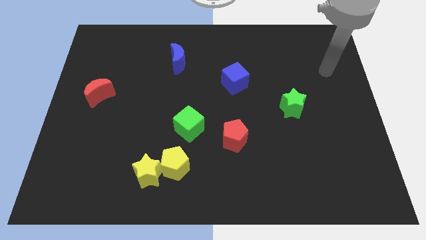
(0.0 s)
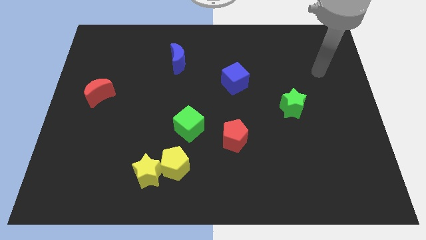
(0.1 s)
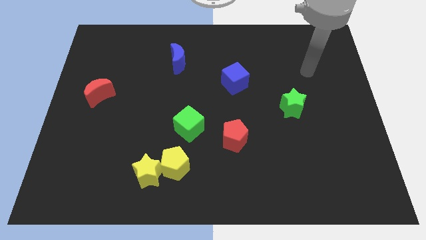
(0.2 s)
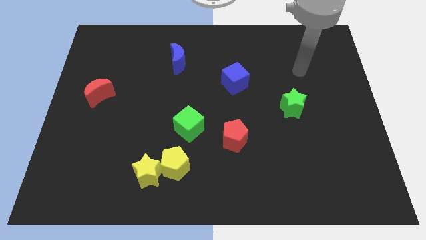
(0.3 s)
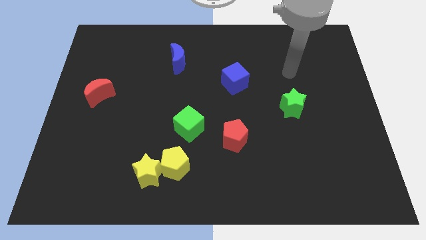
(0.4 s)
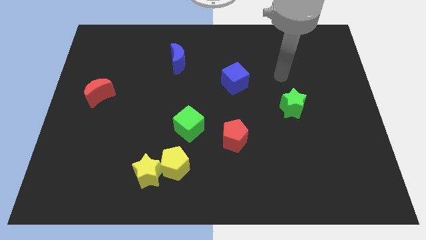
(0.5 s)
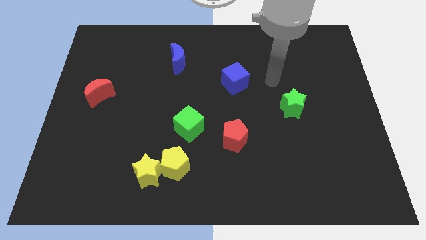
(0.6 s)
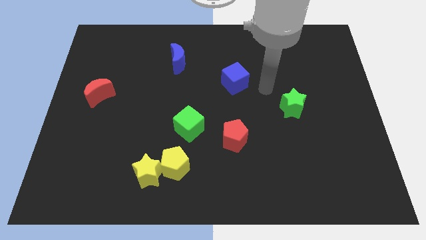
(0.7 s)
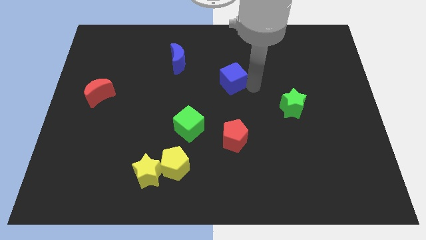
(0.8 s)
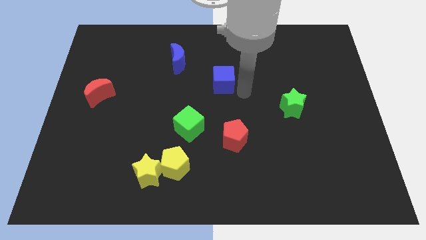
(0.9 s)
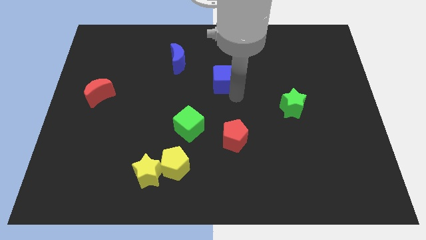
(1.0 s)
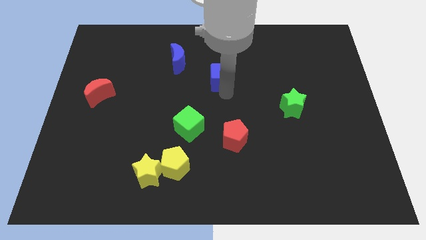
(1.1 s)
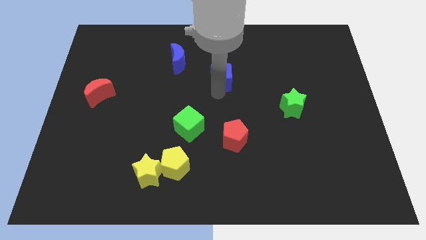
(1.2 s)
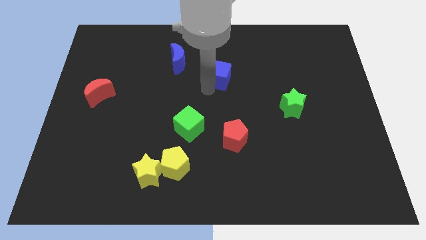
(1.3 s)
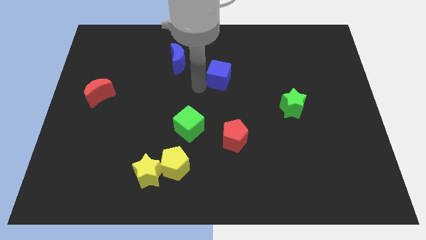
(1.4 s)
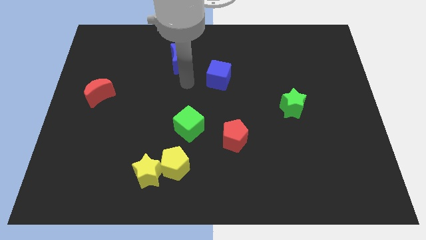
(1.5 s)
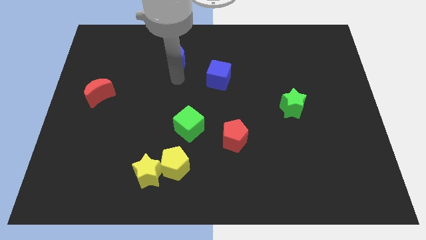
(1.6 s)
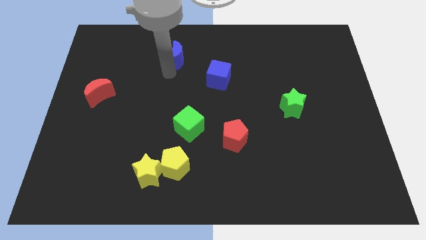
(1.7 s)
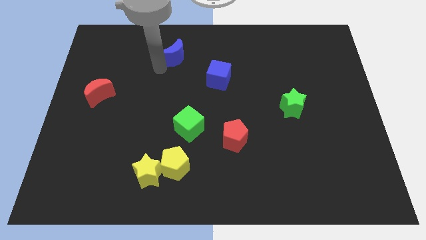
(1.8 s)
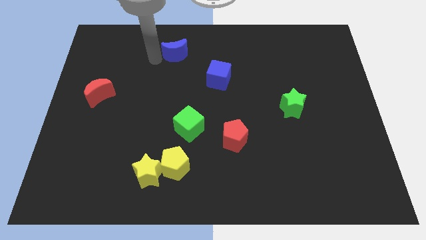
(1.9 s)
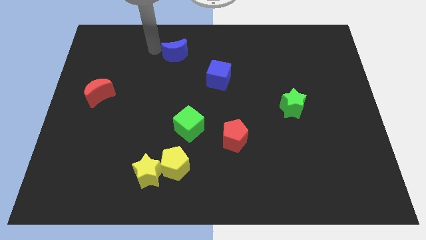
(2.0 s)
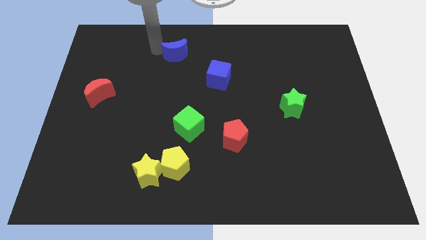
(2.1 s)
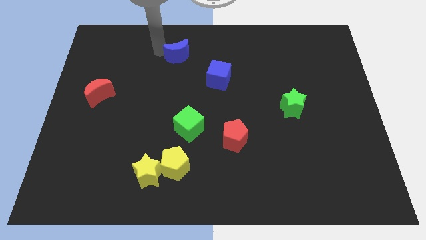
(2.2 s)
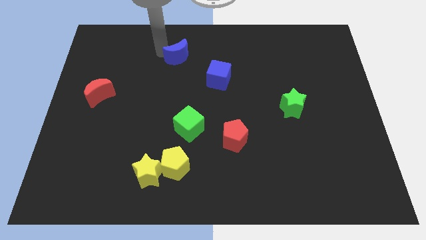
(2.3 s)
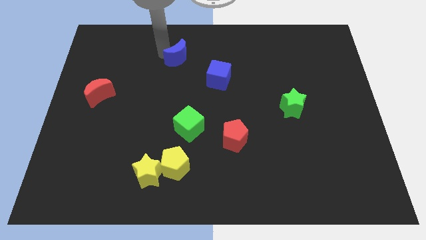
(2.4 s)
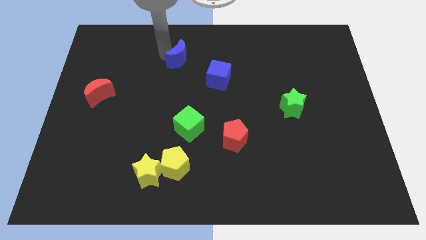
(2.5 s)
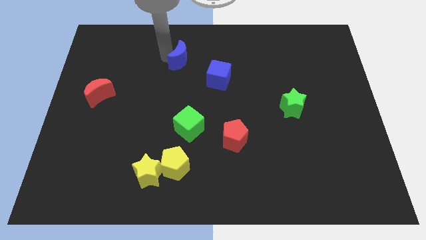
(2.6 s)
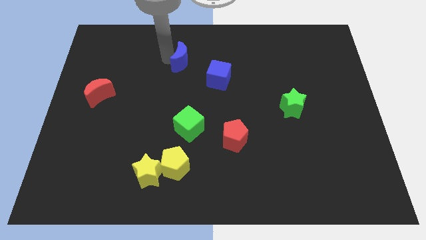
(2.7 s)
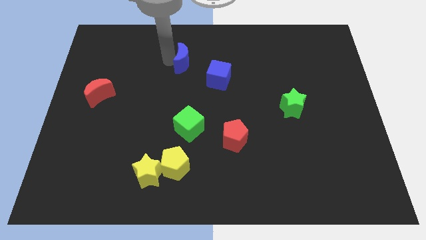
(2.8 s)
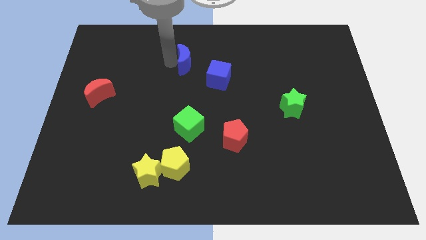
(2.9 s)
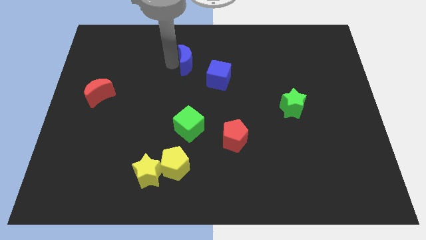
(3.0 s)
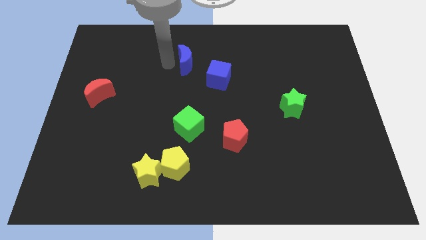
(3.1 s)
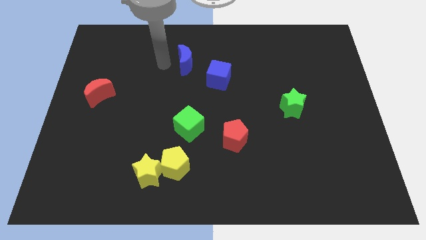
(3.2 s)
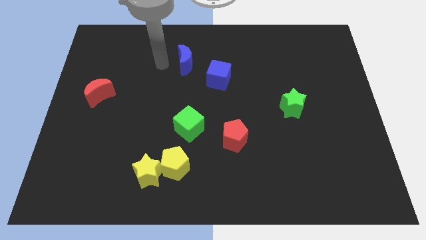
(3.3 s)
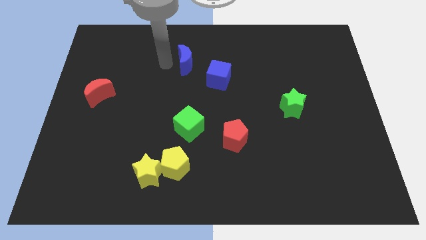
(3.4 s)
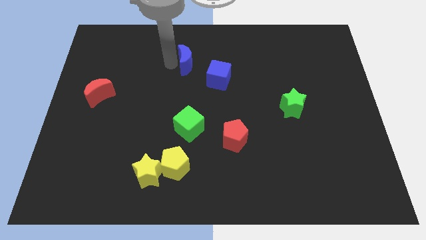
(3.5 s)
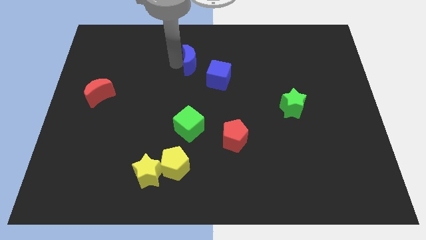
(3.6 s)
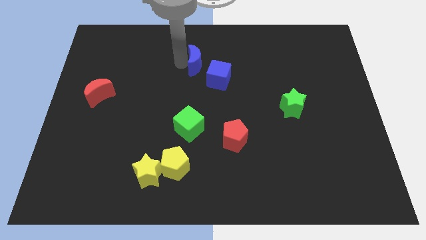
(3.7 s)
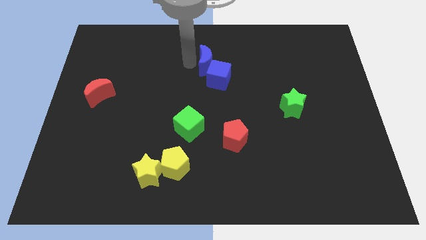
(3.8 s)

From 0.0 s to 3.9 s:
push the blue moon to the right a little bit

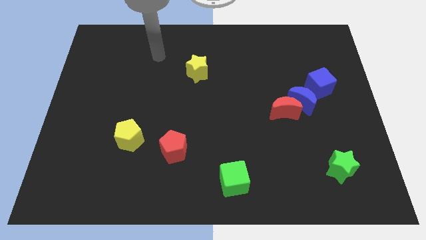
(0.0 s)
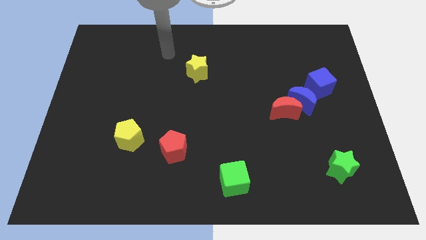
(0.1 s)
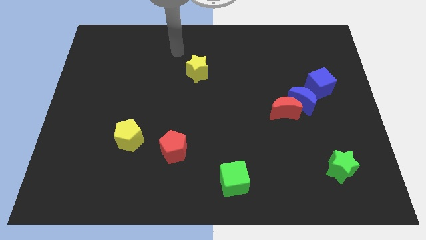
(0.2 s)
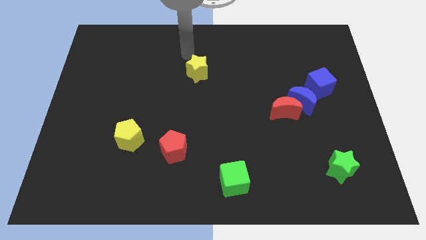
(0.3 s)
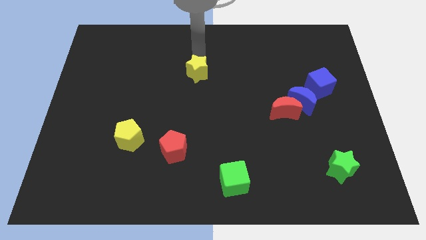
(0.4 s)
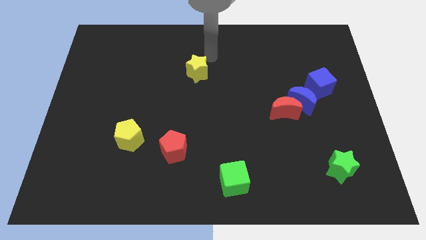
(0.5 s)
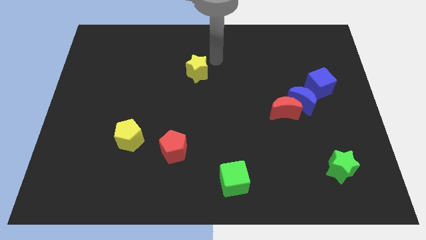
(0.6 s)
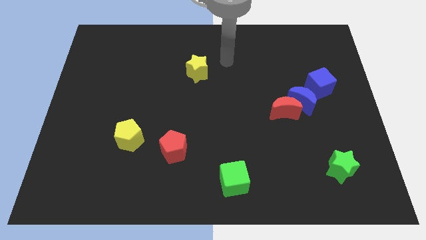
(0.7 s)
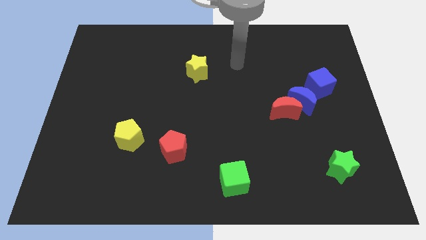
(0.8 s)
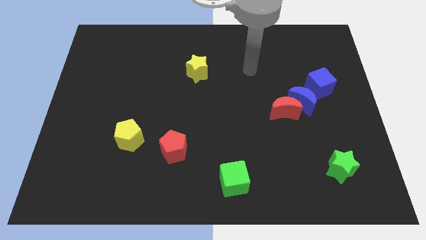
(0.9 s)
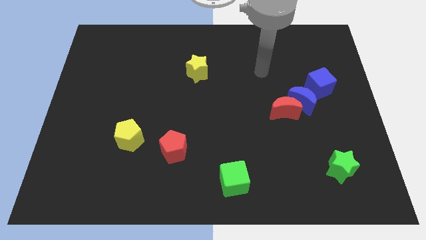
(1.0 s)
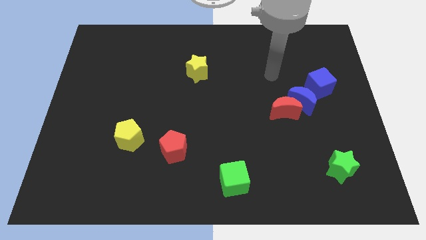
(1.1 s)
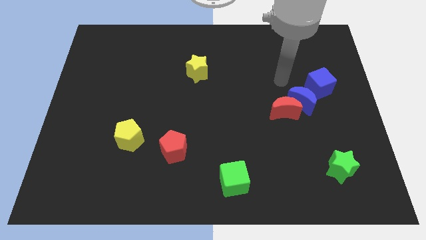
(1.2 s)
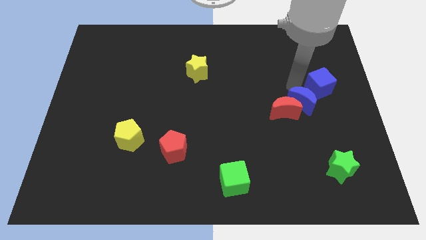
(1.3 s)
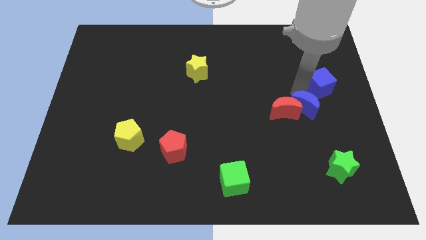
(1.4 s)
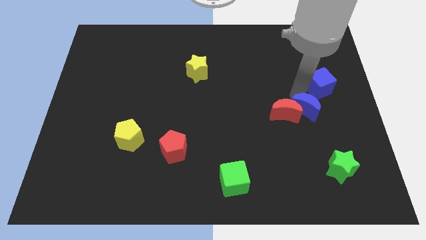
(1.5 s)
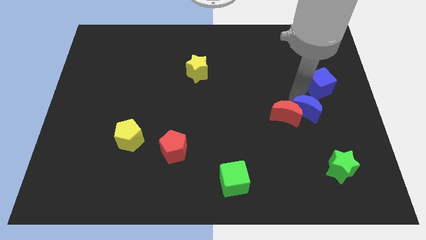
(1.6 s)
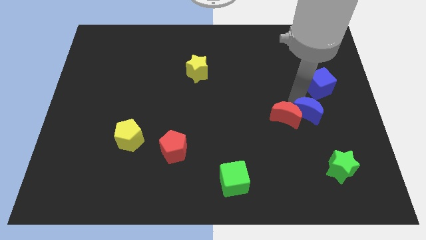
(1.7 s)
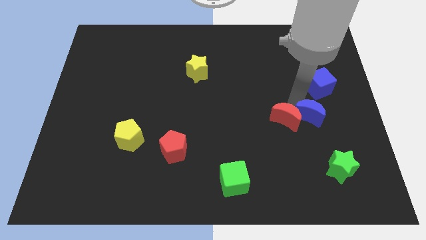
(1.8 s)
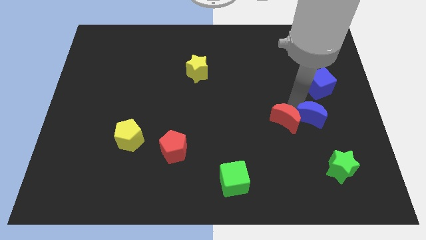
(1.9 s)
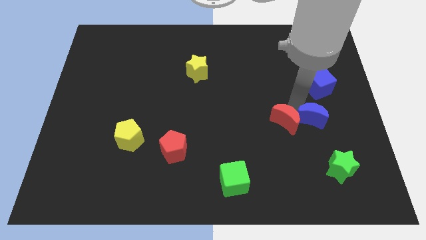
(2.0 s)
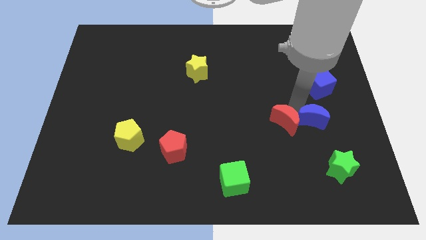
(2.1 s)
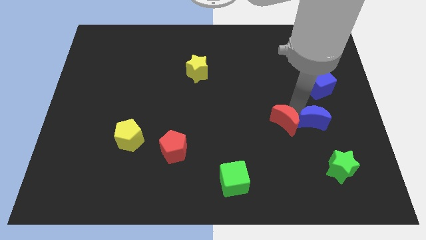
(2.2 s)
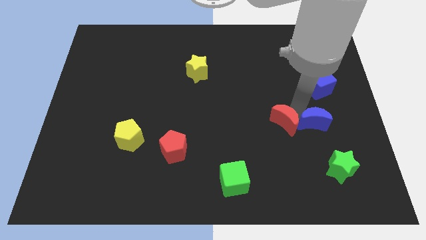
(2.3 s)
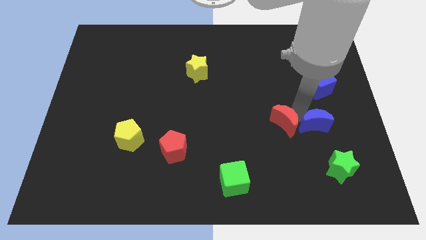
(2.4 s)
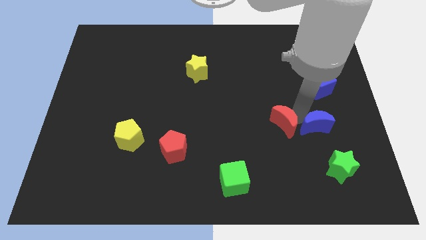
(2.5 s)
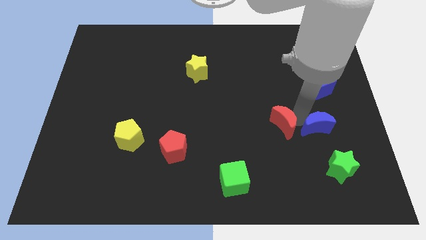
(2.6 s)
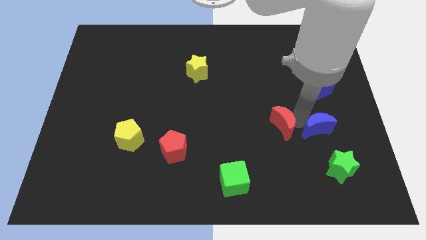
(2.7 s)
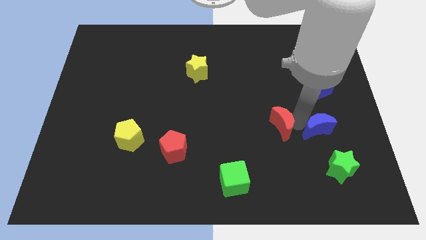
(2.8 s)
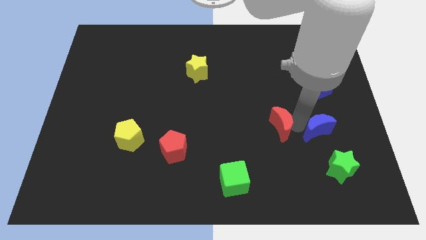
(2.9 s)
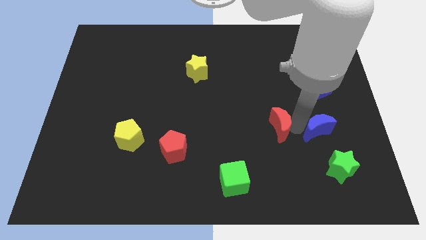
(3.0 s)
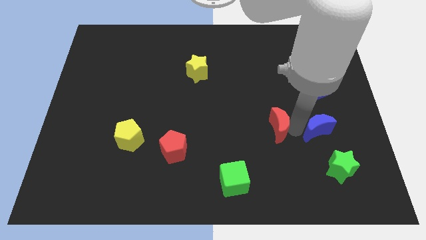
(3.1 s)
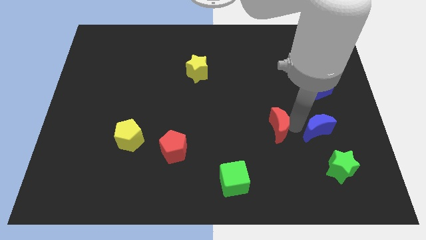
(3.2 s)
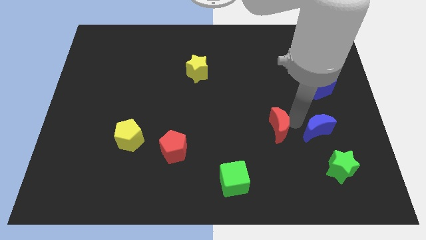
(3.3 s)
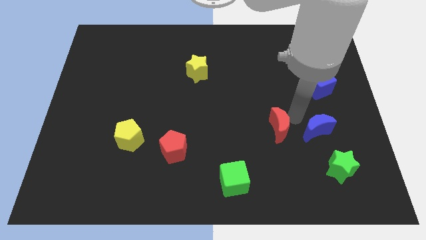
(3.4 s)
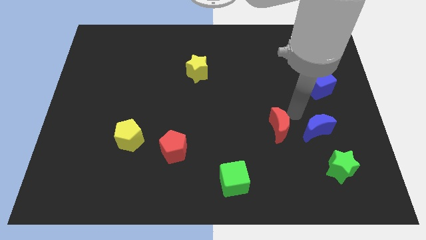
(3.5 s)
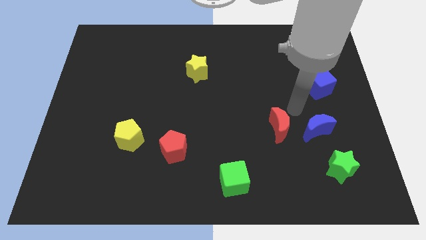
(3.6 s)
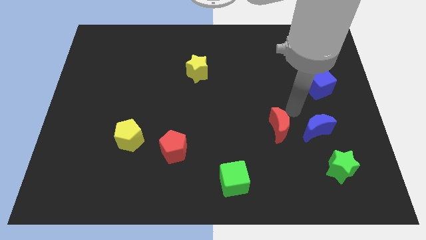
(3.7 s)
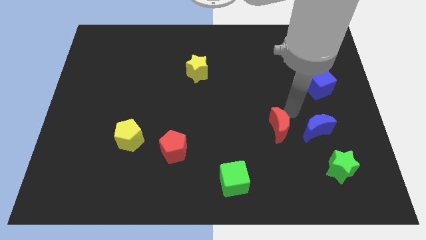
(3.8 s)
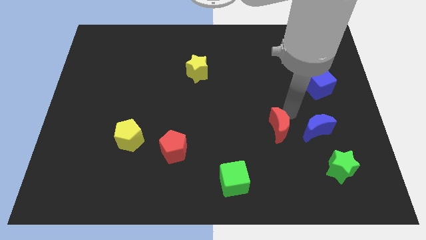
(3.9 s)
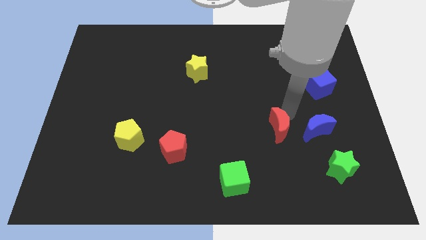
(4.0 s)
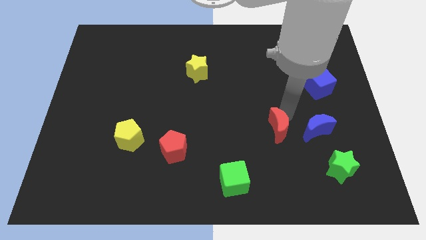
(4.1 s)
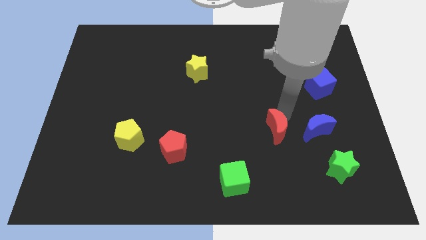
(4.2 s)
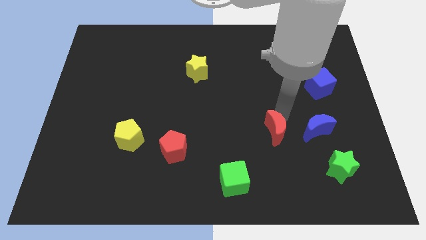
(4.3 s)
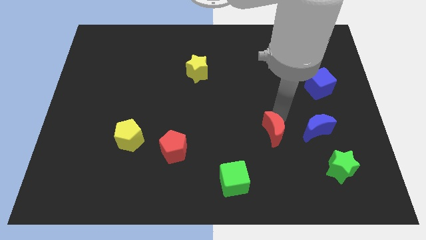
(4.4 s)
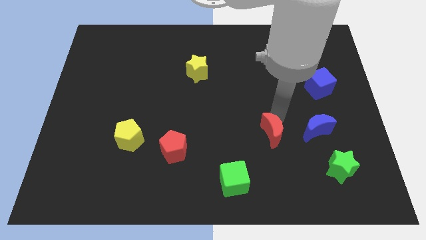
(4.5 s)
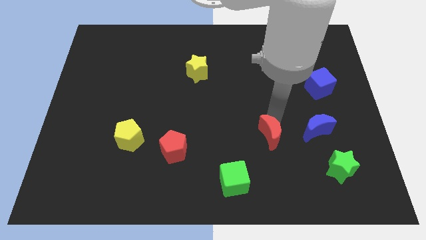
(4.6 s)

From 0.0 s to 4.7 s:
move the red moon a bit diagonally down and to the left

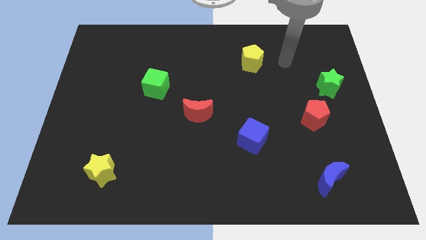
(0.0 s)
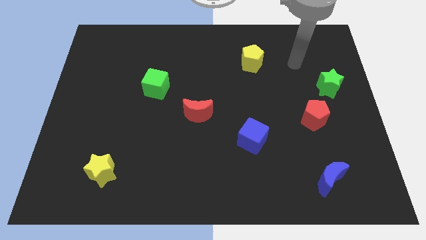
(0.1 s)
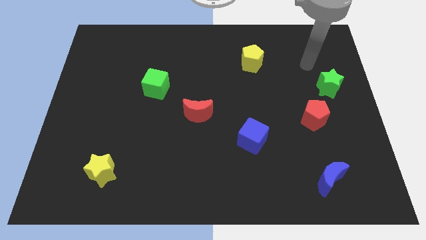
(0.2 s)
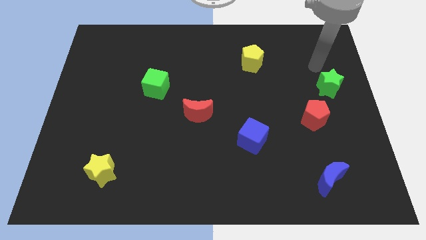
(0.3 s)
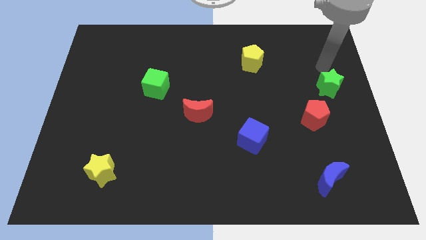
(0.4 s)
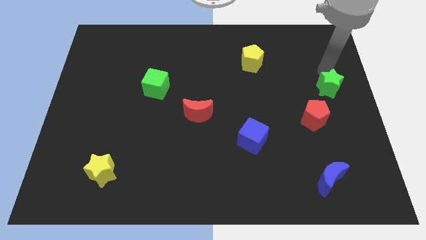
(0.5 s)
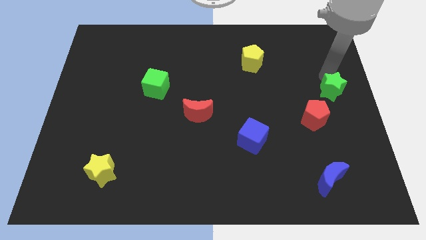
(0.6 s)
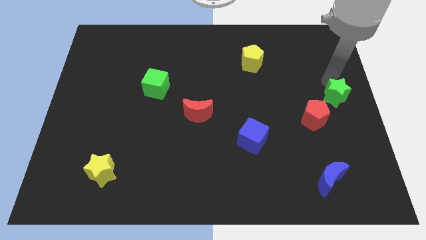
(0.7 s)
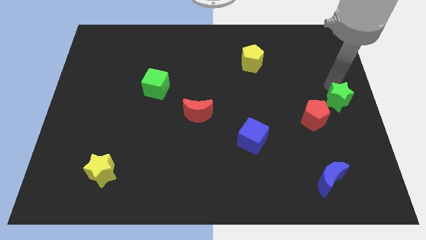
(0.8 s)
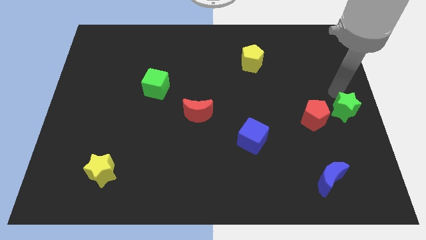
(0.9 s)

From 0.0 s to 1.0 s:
slightly slide the green star downwards
